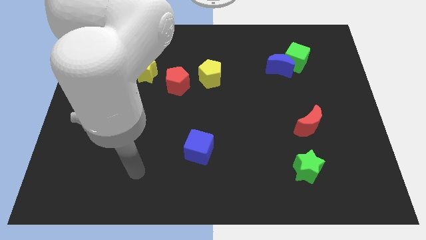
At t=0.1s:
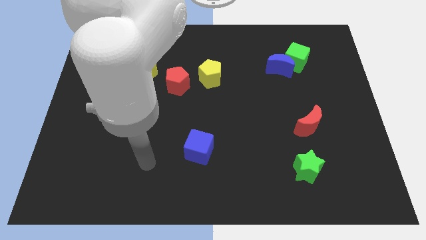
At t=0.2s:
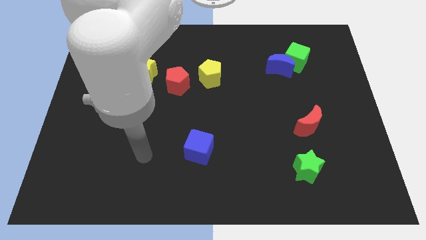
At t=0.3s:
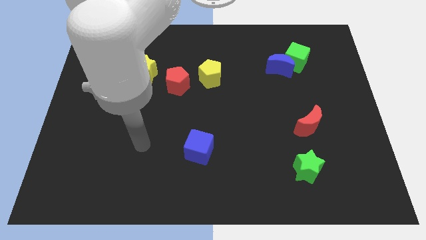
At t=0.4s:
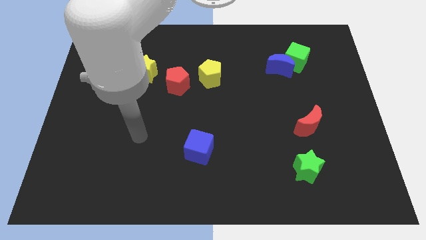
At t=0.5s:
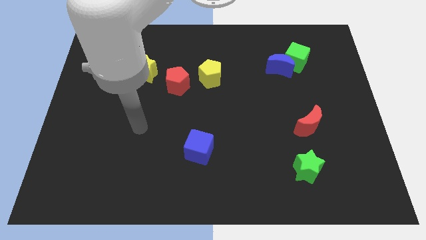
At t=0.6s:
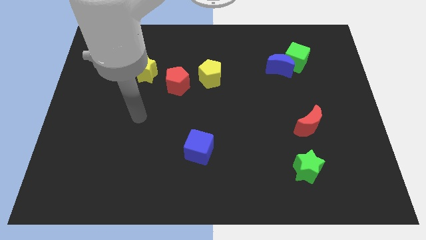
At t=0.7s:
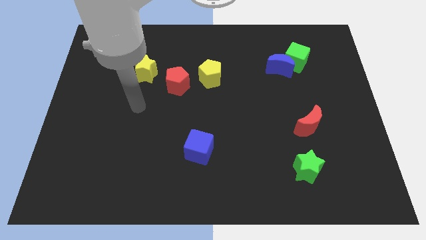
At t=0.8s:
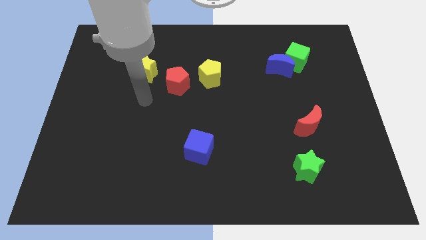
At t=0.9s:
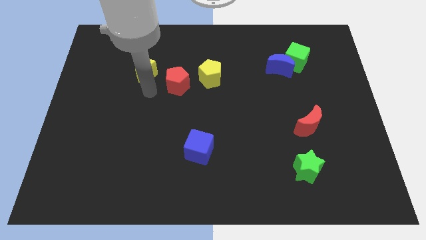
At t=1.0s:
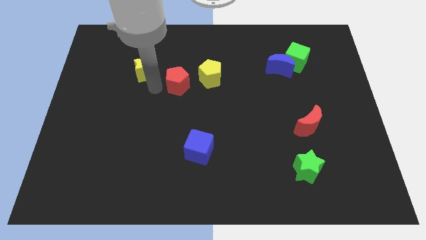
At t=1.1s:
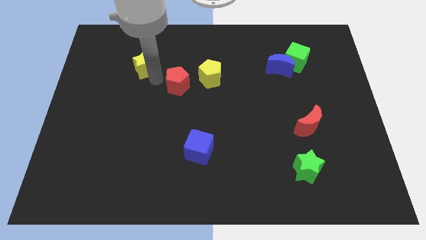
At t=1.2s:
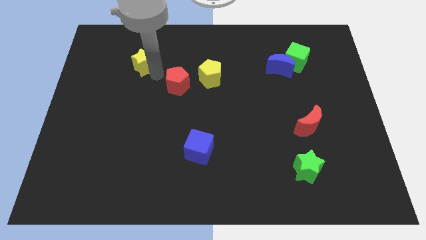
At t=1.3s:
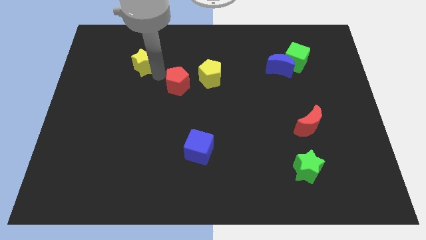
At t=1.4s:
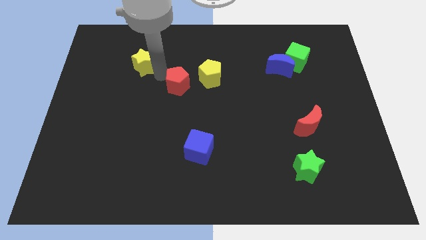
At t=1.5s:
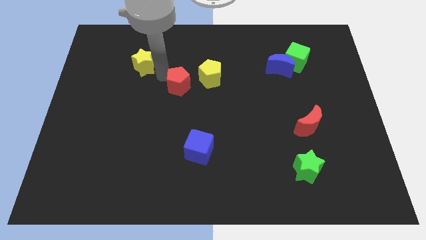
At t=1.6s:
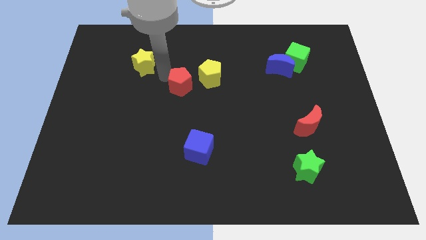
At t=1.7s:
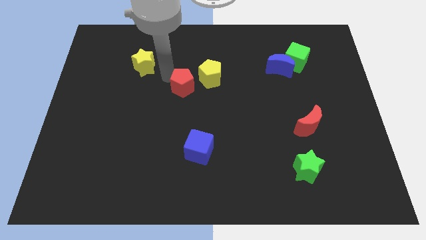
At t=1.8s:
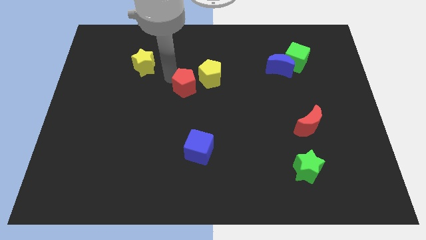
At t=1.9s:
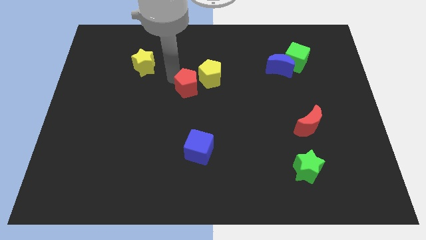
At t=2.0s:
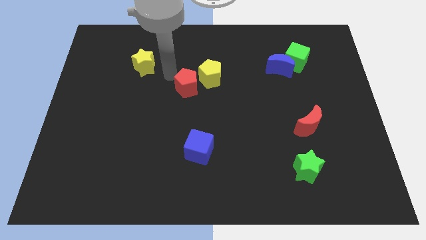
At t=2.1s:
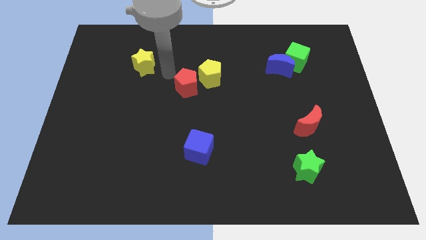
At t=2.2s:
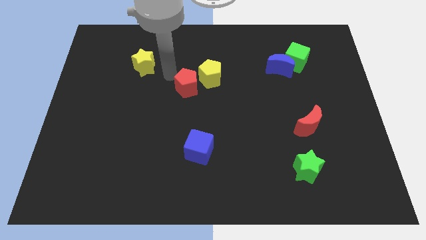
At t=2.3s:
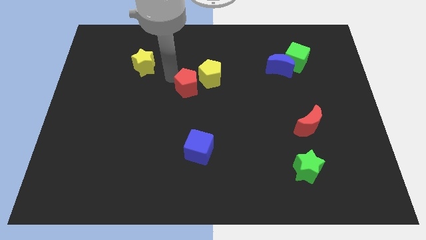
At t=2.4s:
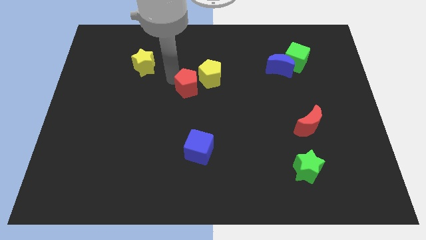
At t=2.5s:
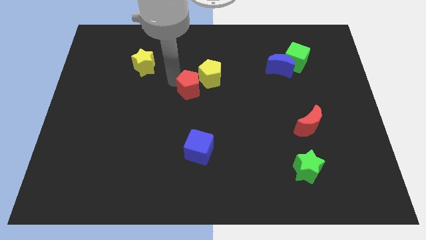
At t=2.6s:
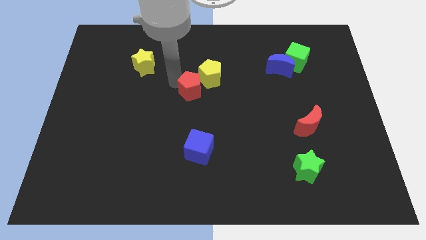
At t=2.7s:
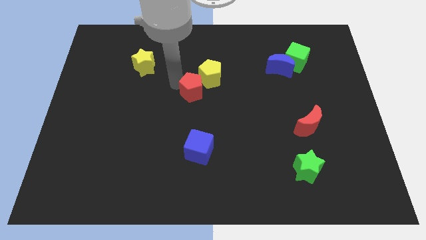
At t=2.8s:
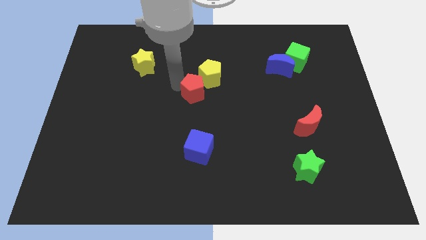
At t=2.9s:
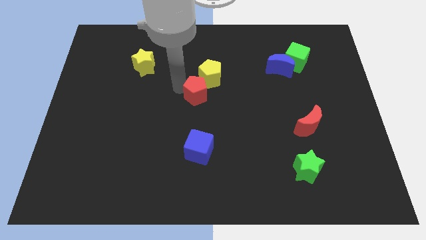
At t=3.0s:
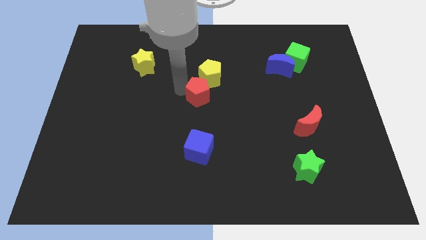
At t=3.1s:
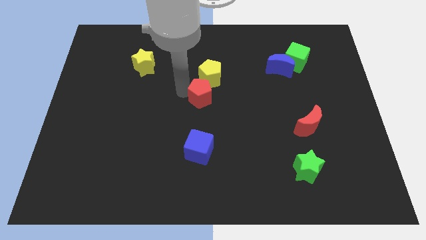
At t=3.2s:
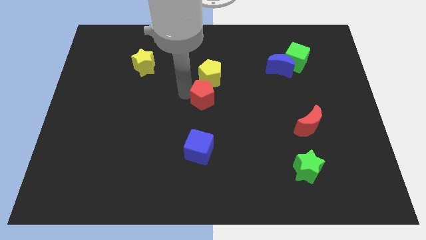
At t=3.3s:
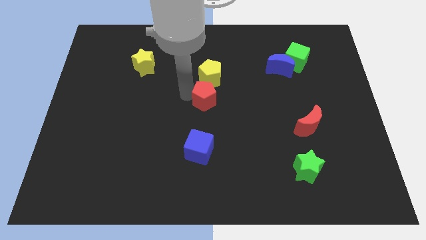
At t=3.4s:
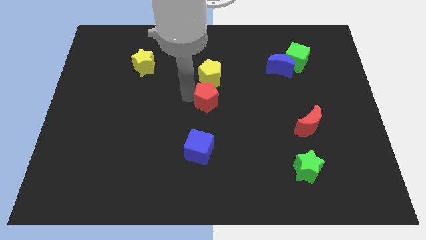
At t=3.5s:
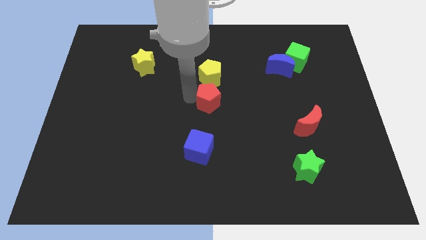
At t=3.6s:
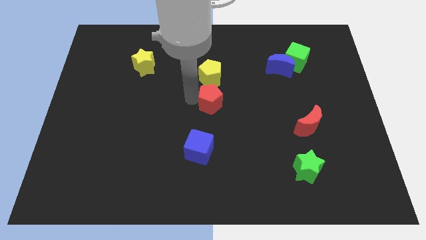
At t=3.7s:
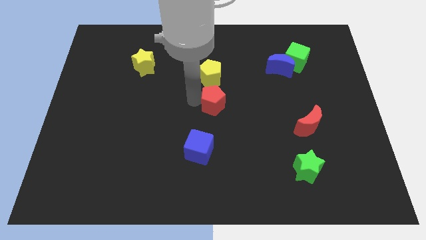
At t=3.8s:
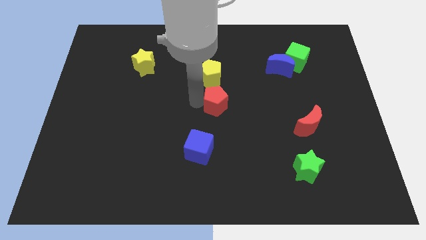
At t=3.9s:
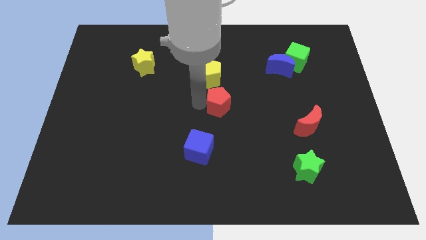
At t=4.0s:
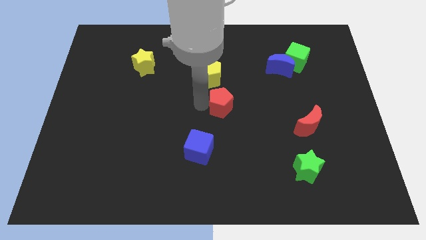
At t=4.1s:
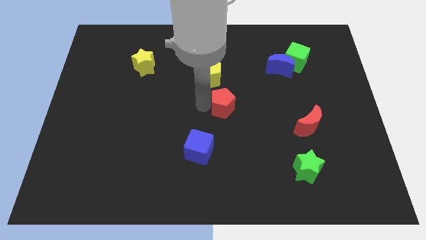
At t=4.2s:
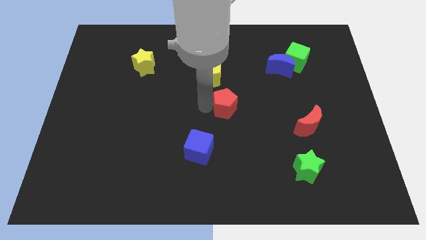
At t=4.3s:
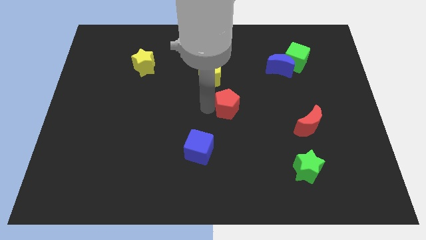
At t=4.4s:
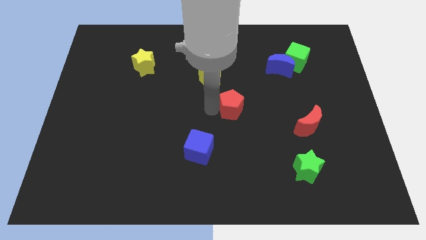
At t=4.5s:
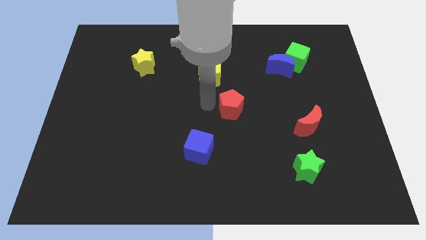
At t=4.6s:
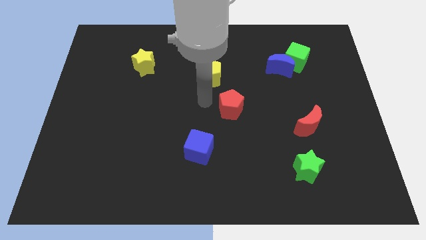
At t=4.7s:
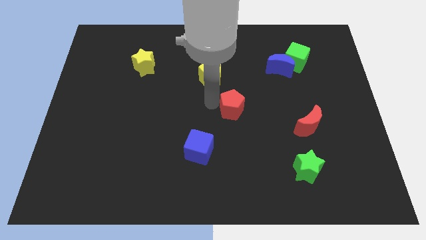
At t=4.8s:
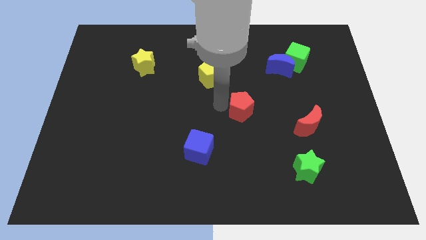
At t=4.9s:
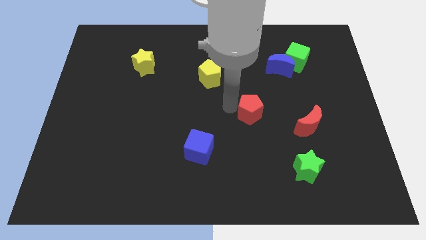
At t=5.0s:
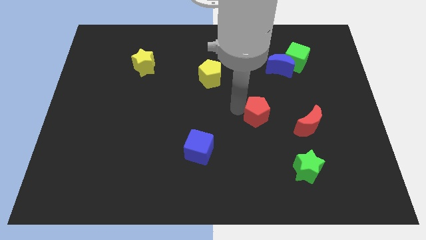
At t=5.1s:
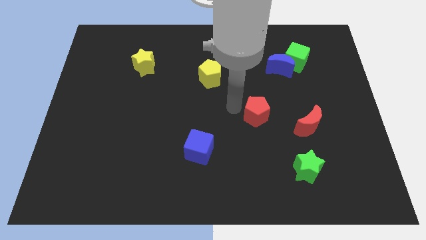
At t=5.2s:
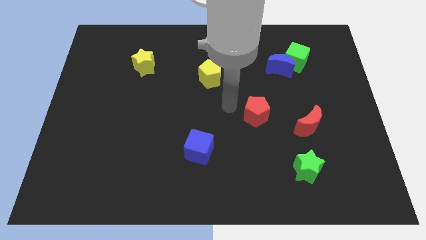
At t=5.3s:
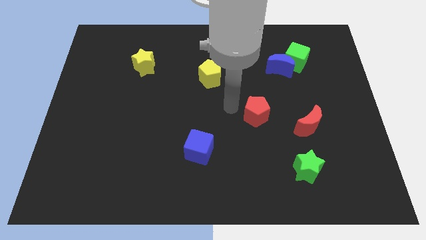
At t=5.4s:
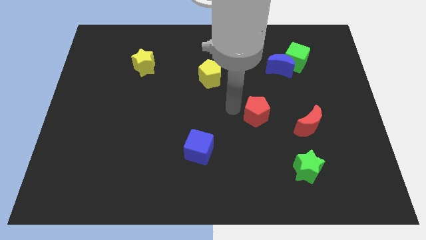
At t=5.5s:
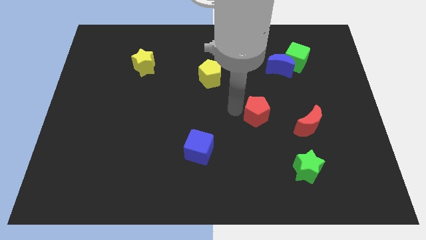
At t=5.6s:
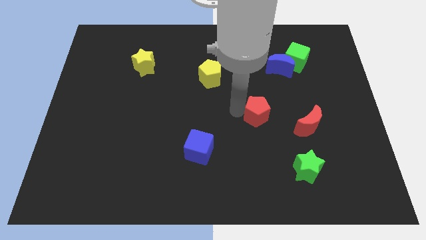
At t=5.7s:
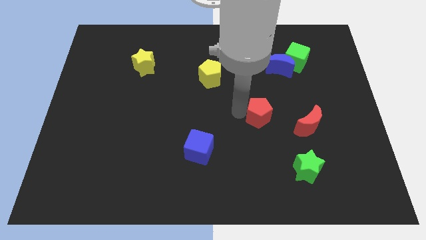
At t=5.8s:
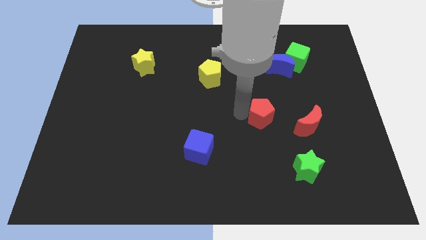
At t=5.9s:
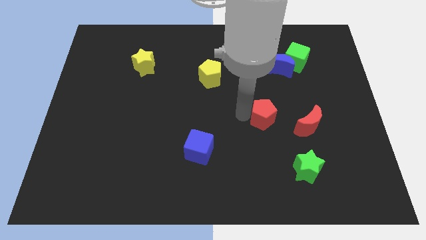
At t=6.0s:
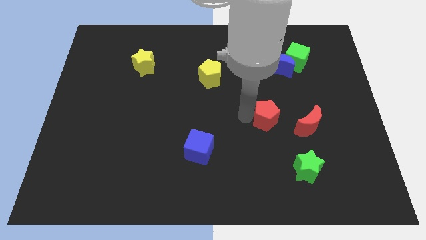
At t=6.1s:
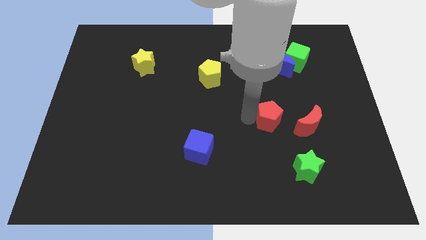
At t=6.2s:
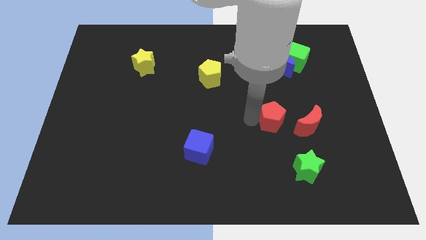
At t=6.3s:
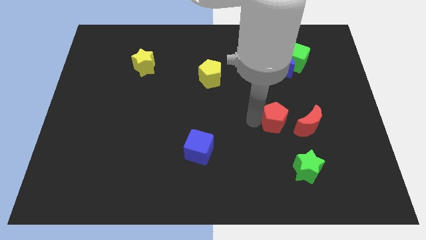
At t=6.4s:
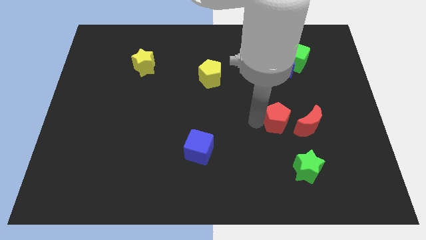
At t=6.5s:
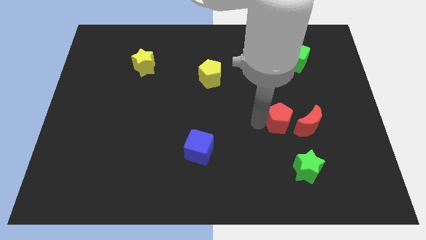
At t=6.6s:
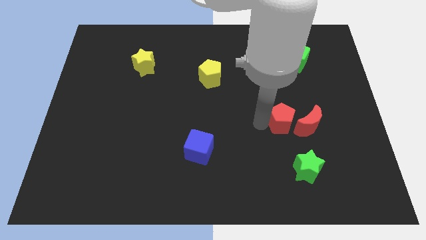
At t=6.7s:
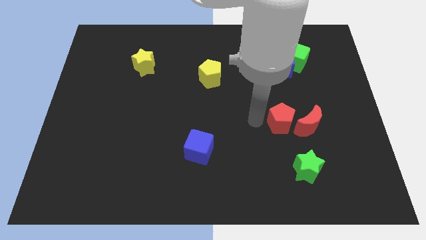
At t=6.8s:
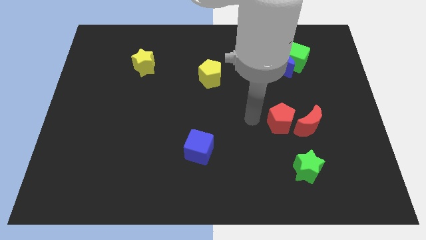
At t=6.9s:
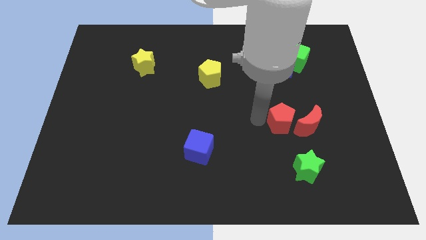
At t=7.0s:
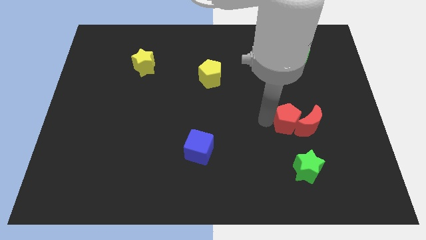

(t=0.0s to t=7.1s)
push the red pentagon next to the red moon

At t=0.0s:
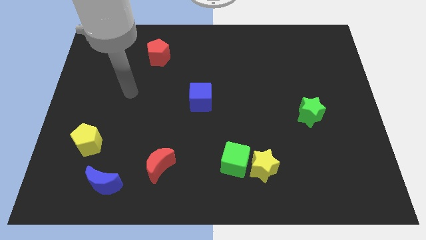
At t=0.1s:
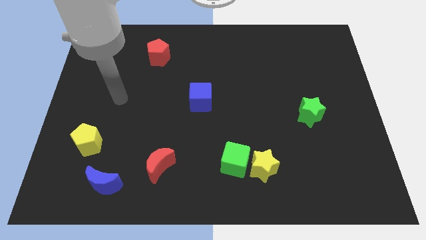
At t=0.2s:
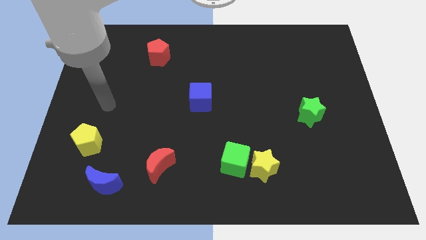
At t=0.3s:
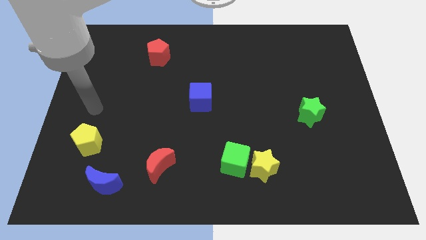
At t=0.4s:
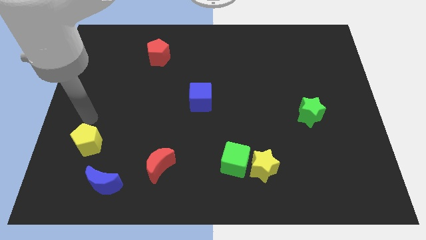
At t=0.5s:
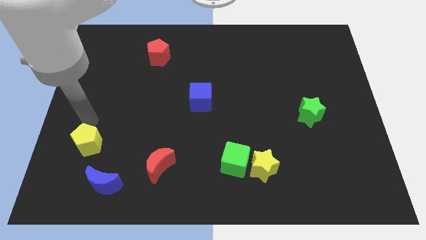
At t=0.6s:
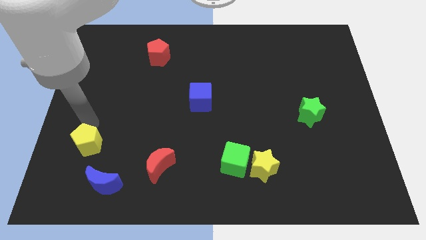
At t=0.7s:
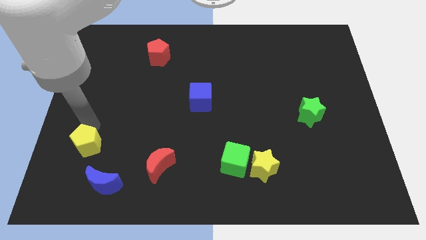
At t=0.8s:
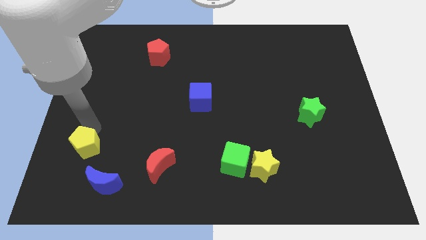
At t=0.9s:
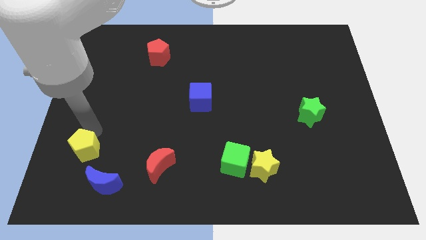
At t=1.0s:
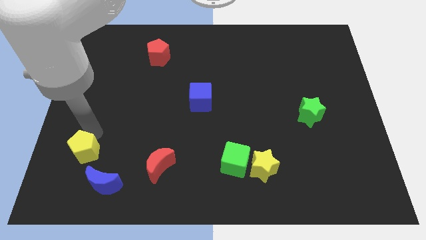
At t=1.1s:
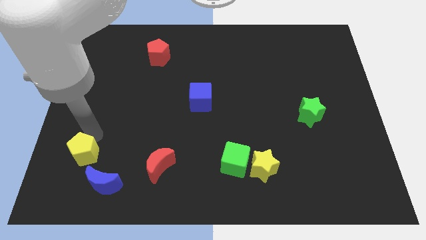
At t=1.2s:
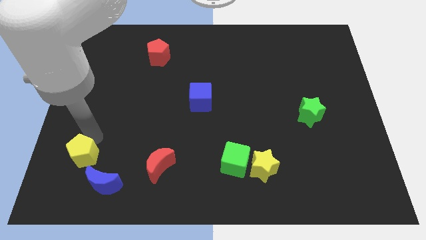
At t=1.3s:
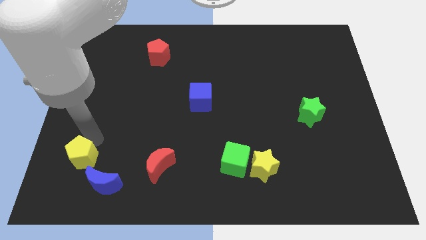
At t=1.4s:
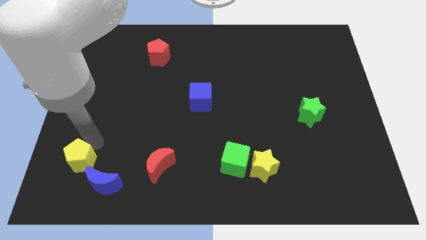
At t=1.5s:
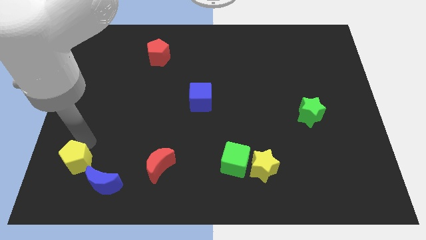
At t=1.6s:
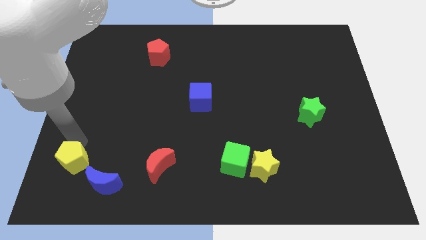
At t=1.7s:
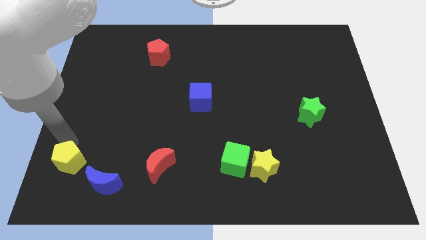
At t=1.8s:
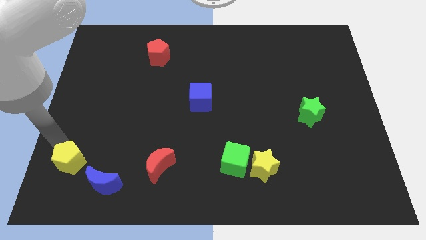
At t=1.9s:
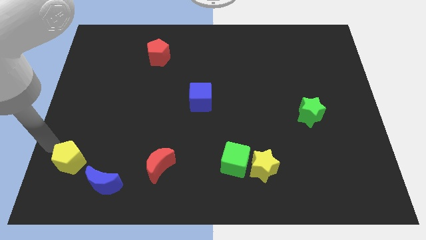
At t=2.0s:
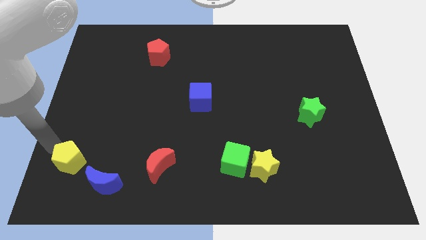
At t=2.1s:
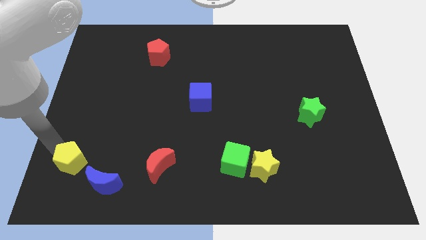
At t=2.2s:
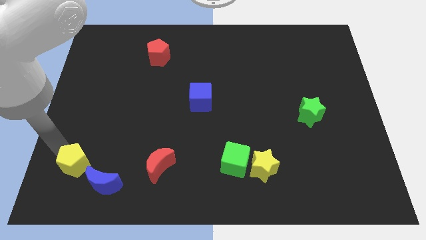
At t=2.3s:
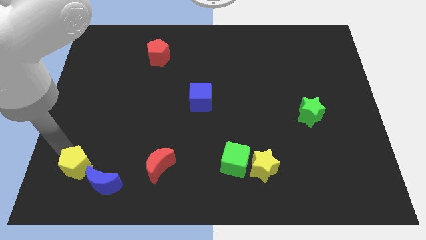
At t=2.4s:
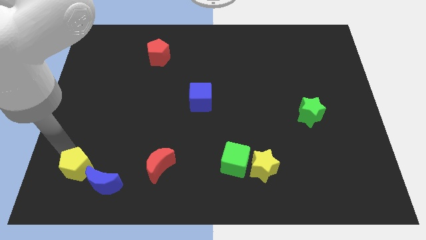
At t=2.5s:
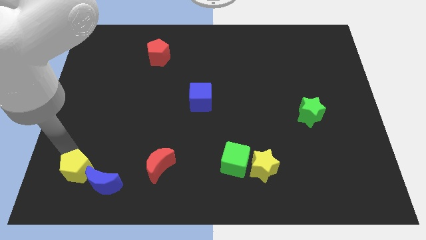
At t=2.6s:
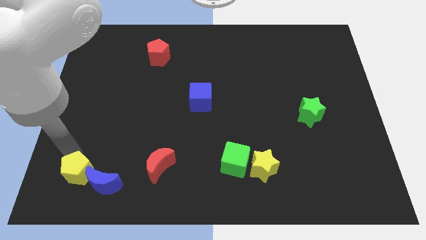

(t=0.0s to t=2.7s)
slide the yellow pentagon next to the blue moon
